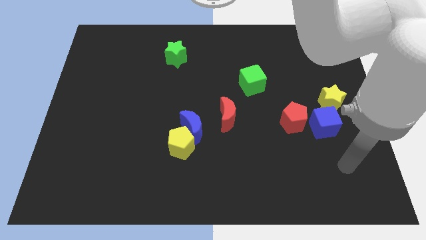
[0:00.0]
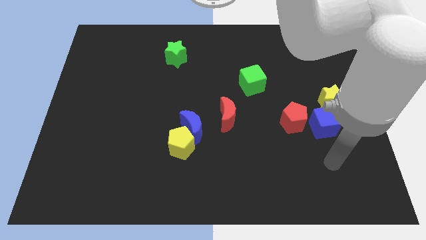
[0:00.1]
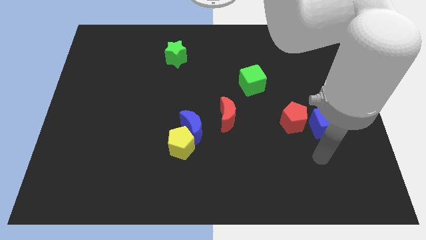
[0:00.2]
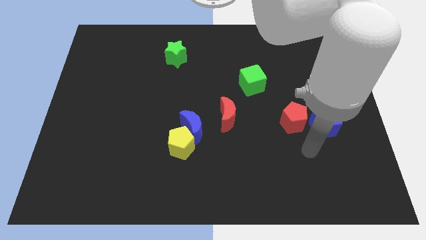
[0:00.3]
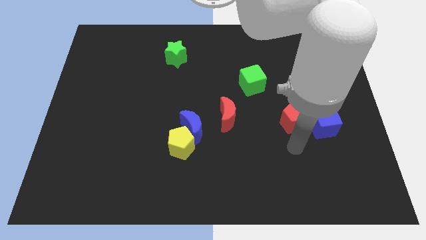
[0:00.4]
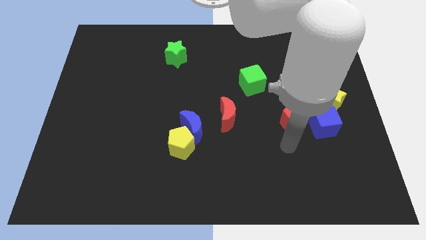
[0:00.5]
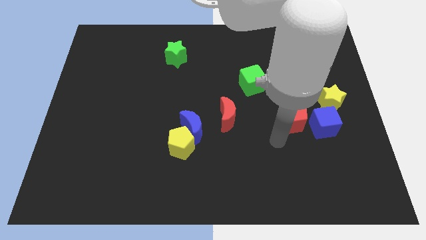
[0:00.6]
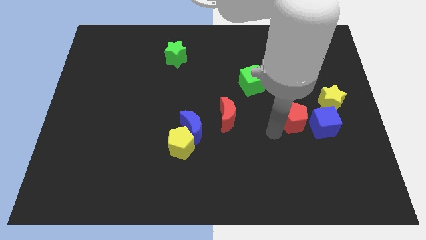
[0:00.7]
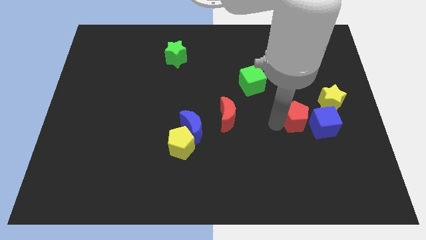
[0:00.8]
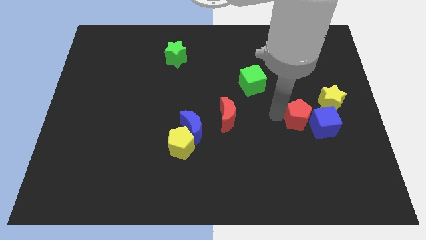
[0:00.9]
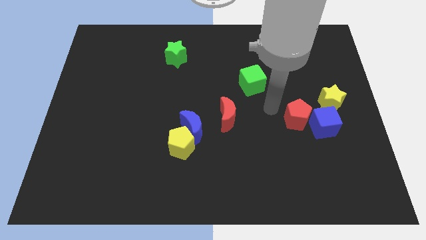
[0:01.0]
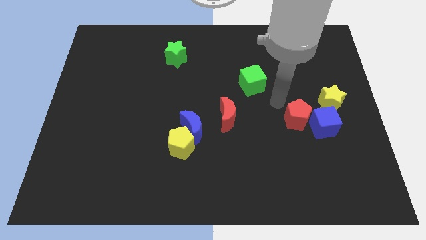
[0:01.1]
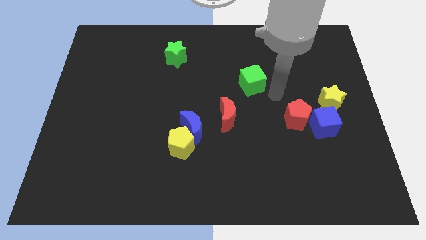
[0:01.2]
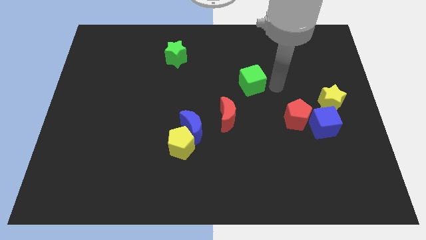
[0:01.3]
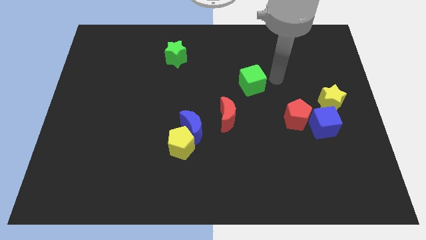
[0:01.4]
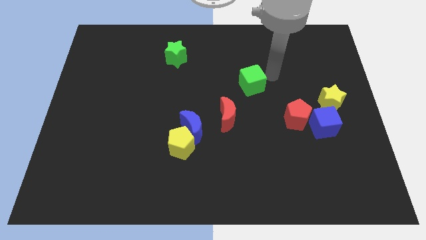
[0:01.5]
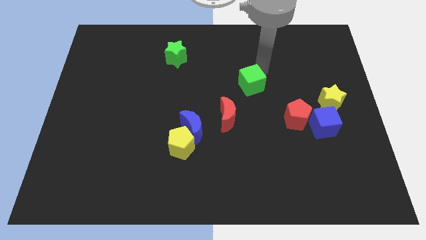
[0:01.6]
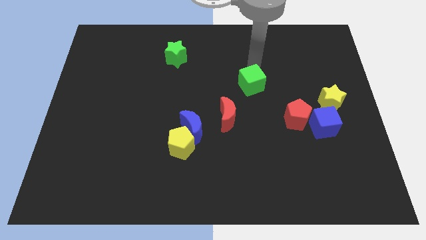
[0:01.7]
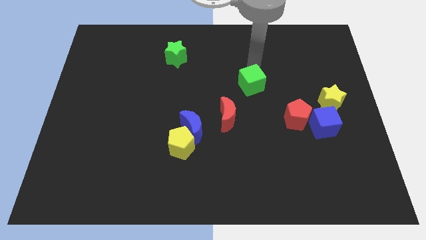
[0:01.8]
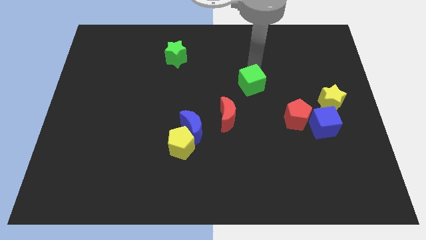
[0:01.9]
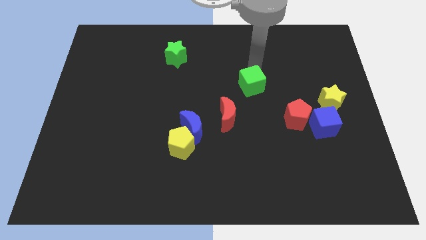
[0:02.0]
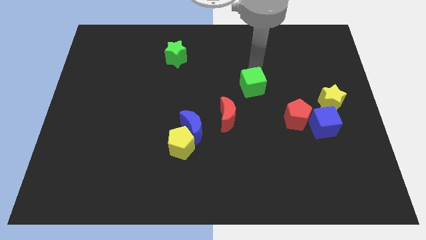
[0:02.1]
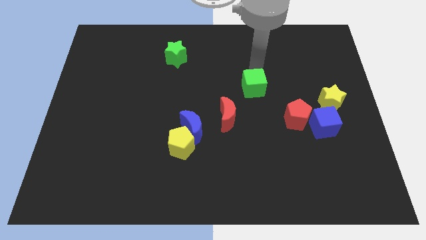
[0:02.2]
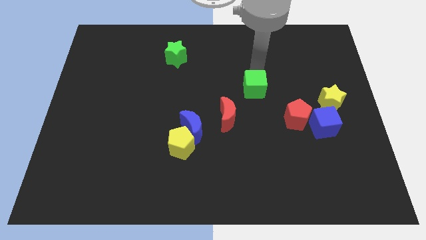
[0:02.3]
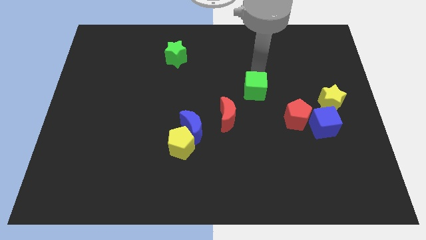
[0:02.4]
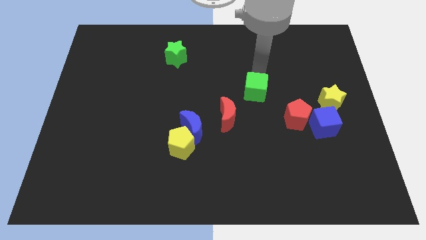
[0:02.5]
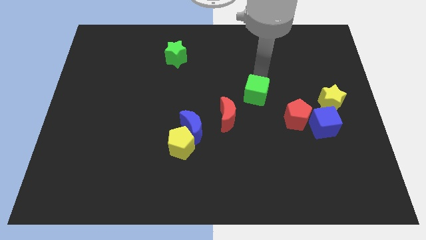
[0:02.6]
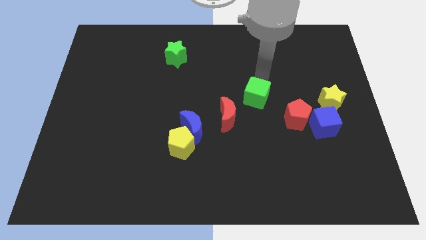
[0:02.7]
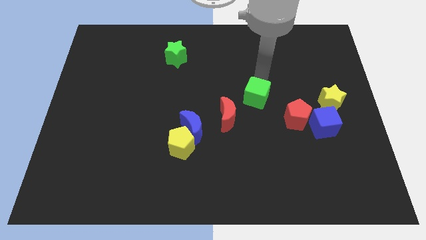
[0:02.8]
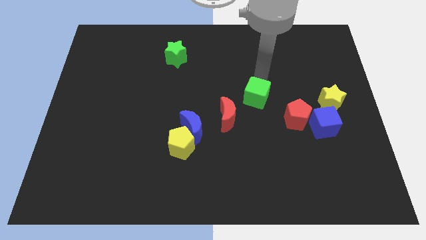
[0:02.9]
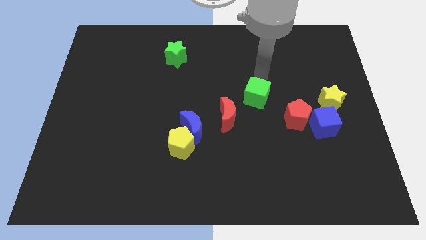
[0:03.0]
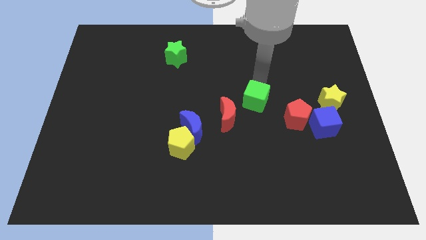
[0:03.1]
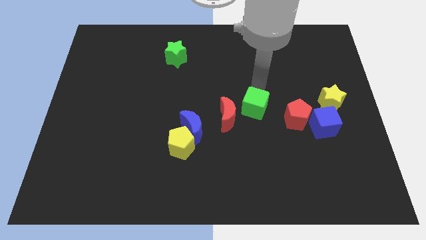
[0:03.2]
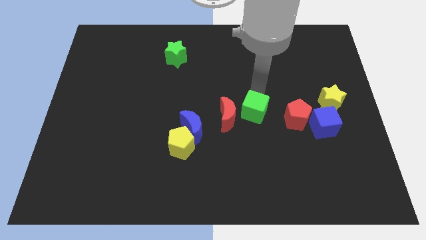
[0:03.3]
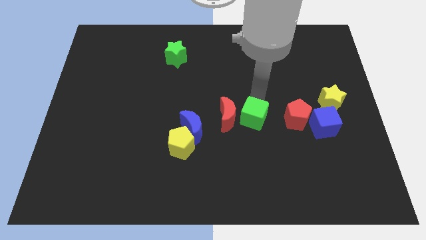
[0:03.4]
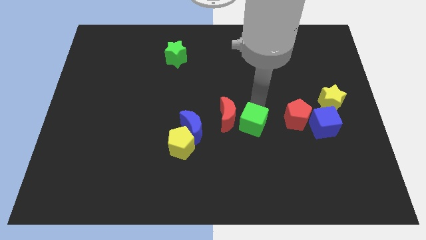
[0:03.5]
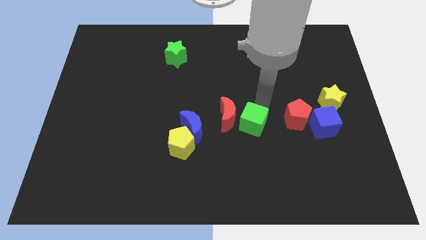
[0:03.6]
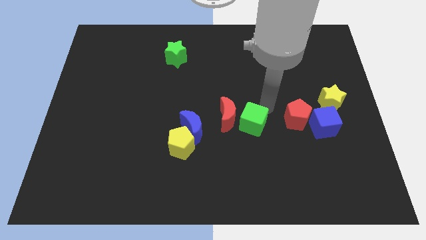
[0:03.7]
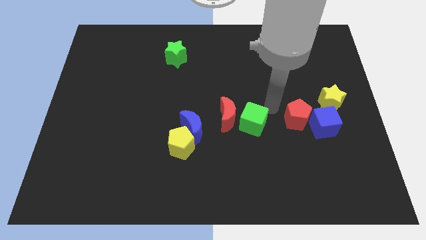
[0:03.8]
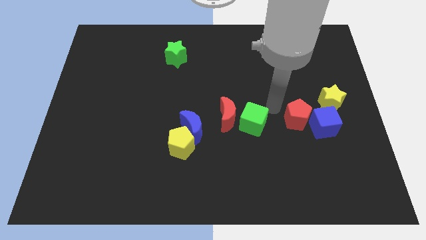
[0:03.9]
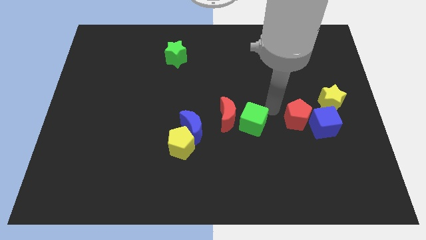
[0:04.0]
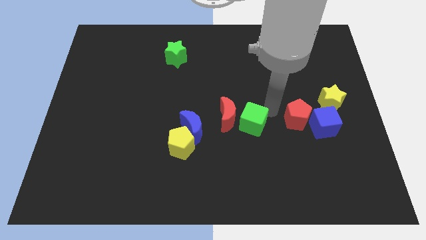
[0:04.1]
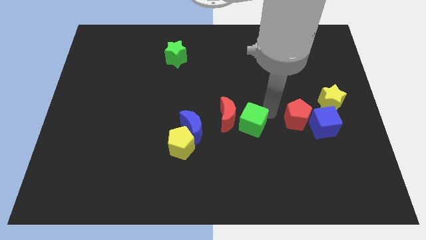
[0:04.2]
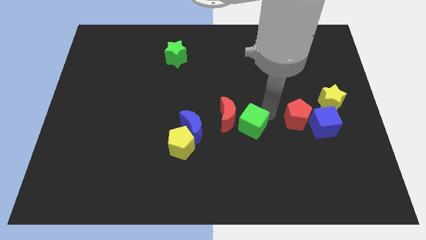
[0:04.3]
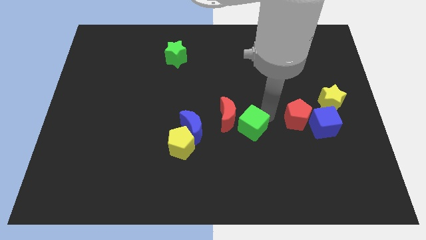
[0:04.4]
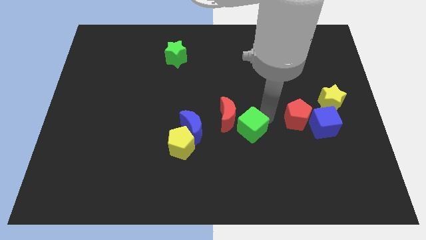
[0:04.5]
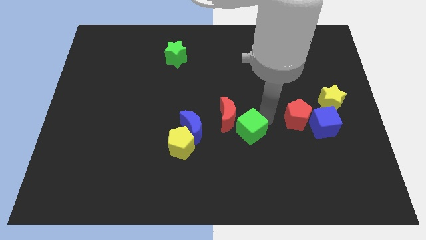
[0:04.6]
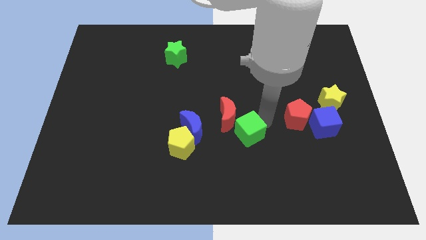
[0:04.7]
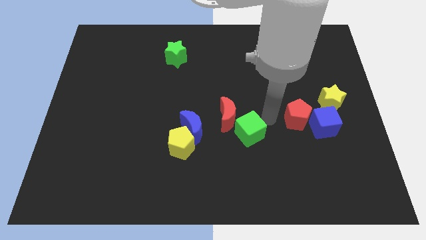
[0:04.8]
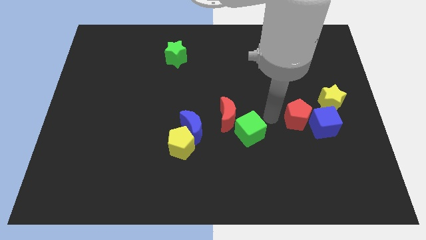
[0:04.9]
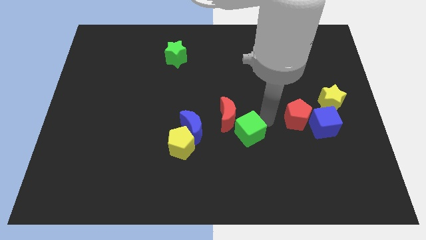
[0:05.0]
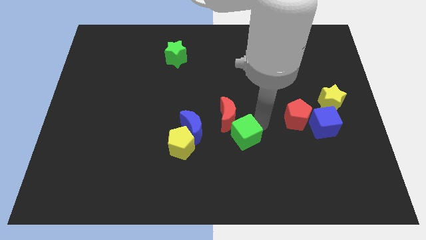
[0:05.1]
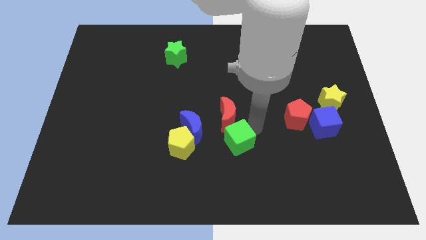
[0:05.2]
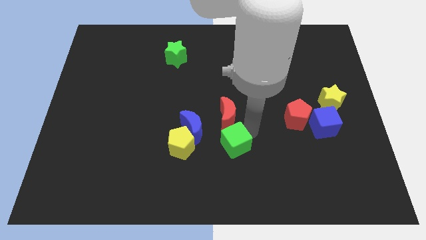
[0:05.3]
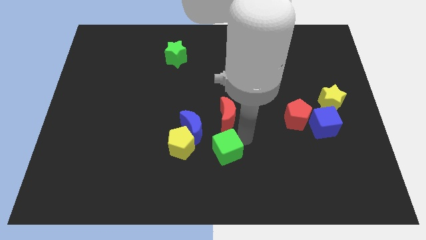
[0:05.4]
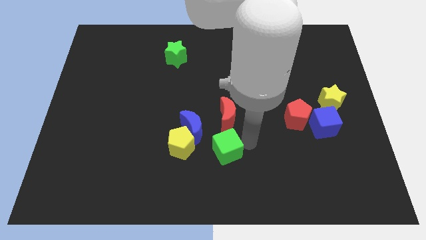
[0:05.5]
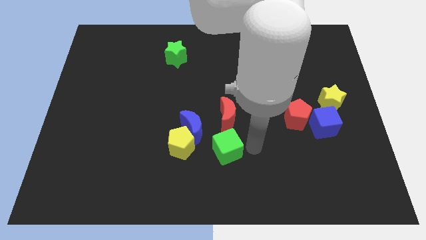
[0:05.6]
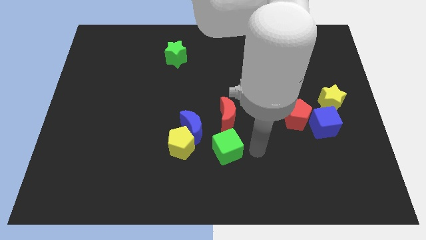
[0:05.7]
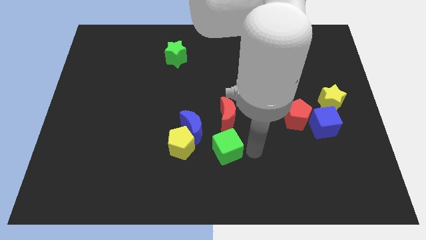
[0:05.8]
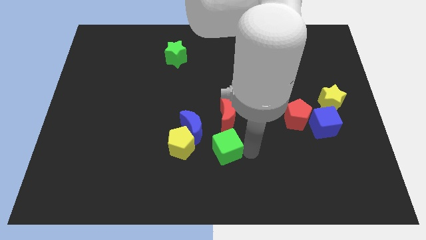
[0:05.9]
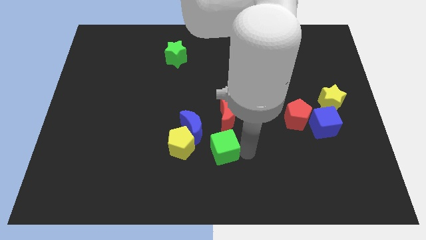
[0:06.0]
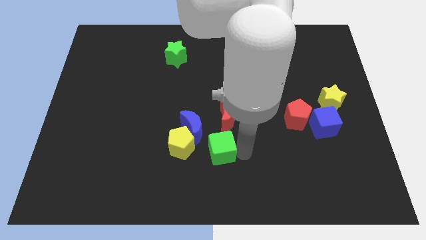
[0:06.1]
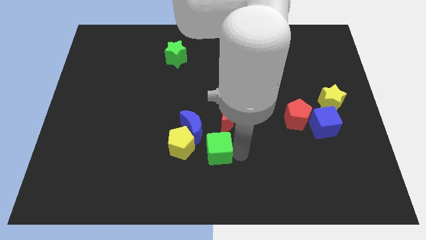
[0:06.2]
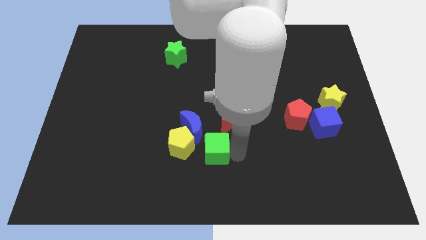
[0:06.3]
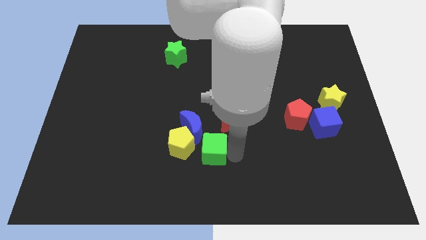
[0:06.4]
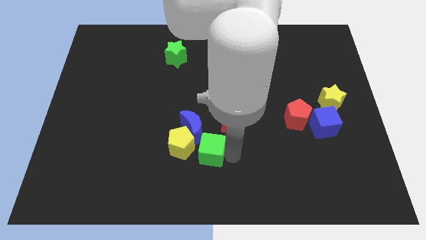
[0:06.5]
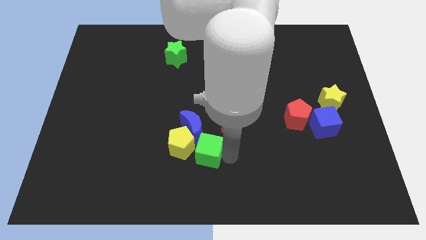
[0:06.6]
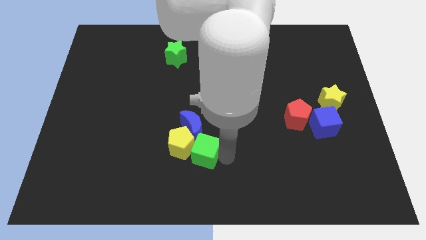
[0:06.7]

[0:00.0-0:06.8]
slide the green cube next to the yellow pentagon

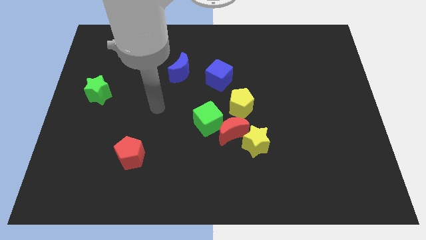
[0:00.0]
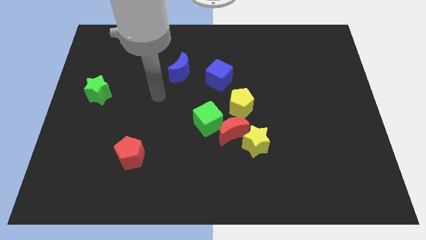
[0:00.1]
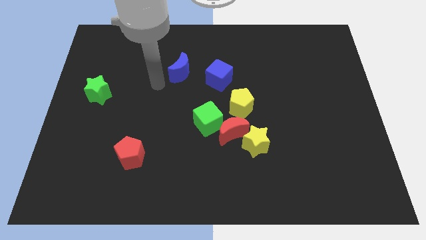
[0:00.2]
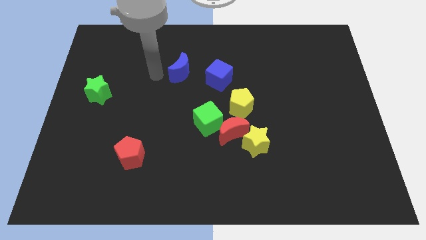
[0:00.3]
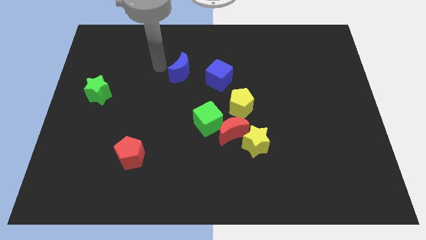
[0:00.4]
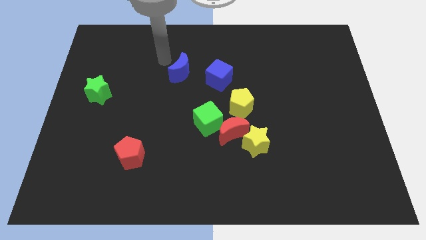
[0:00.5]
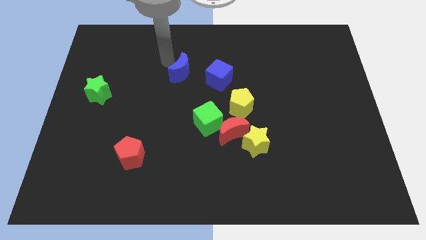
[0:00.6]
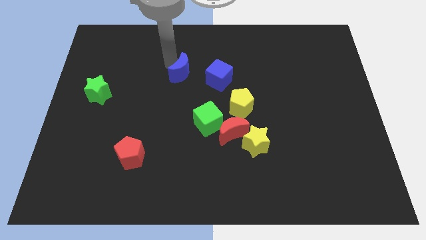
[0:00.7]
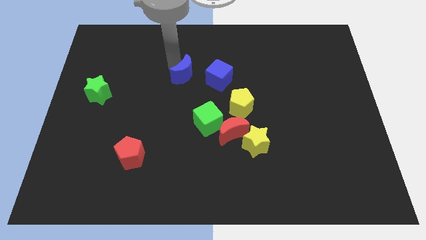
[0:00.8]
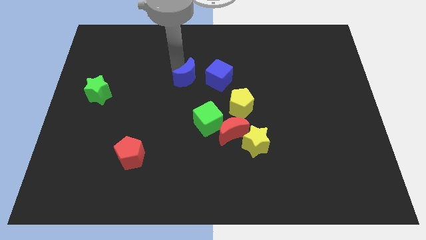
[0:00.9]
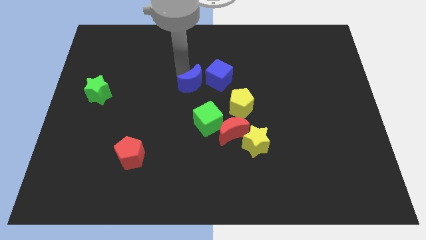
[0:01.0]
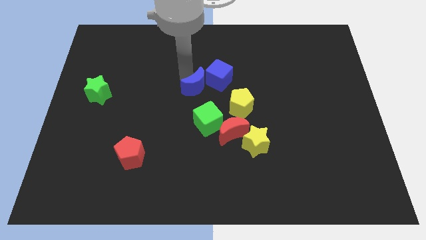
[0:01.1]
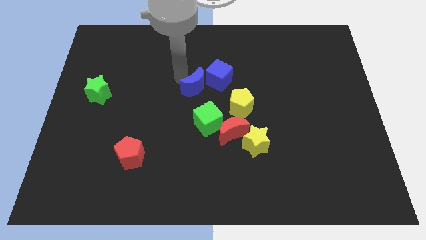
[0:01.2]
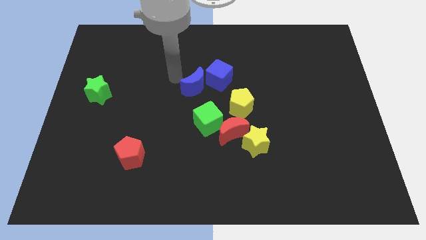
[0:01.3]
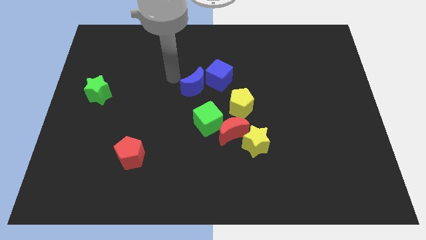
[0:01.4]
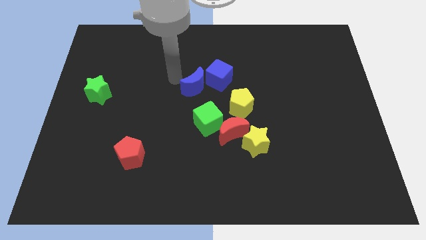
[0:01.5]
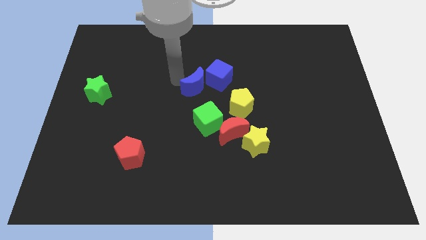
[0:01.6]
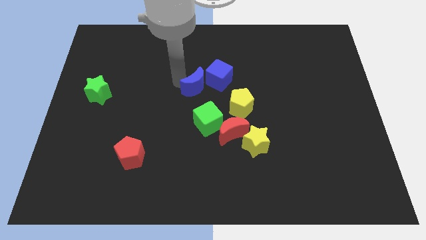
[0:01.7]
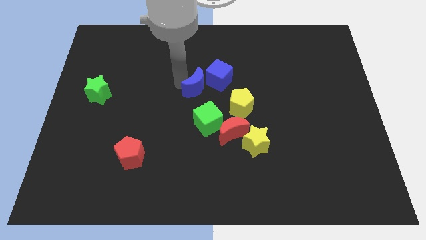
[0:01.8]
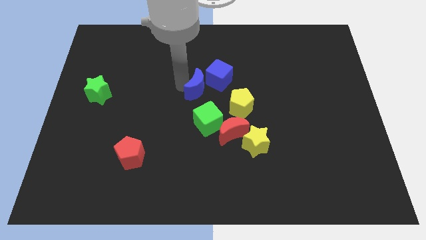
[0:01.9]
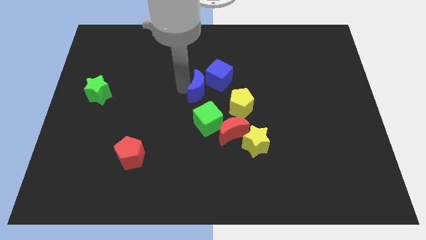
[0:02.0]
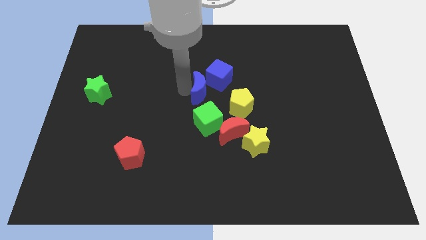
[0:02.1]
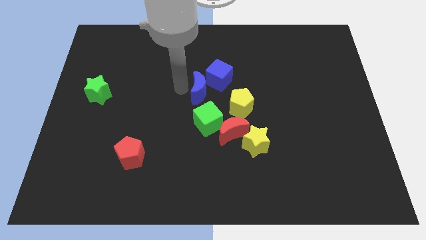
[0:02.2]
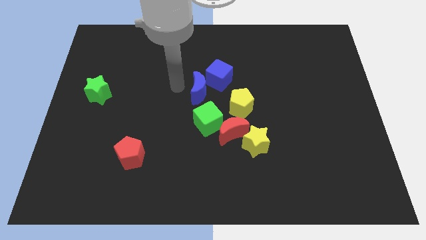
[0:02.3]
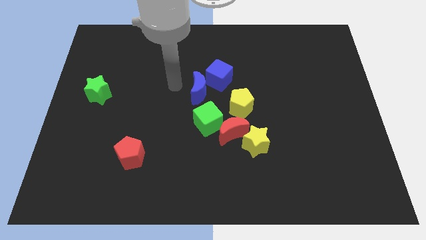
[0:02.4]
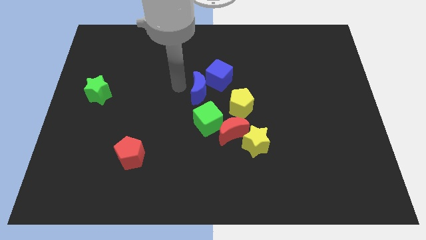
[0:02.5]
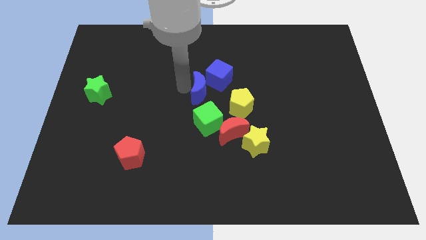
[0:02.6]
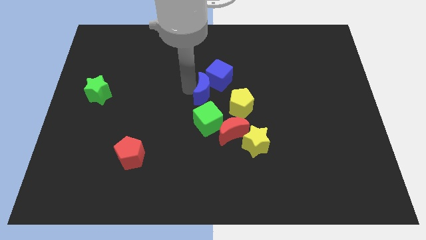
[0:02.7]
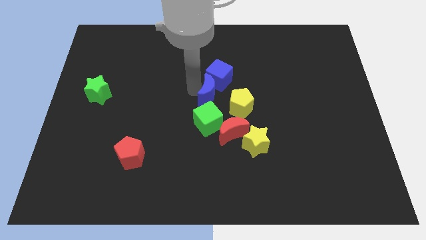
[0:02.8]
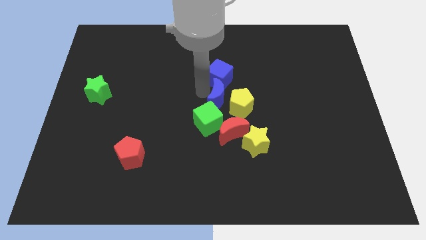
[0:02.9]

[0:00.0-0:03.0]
put the blue moon to the yellow pentagon
